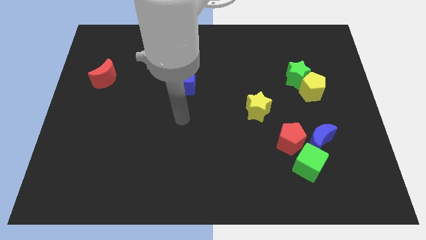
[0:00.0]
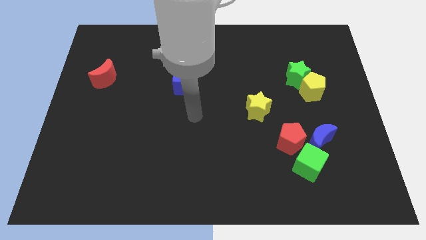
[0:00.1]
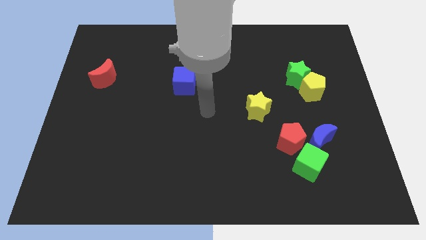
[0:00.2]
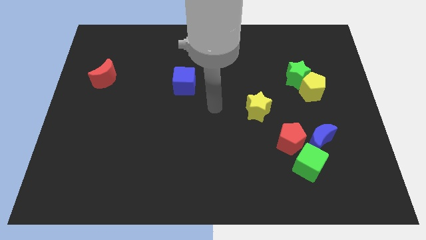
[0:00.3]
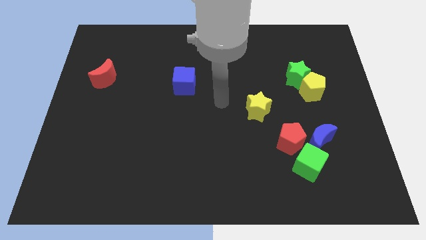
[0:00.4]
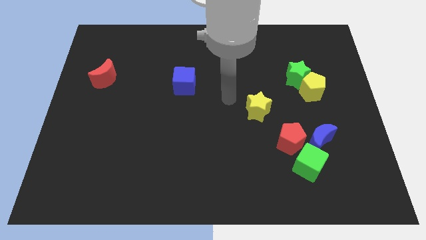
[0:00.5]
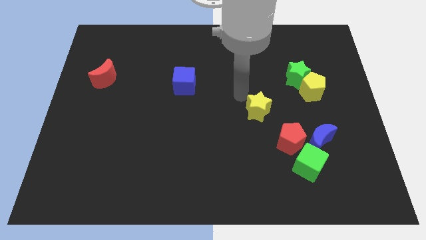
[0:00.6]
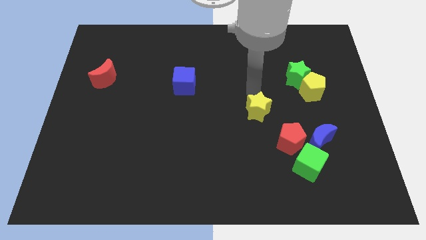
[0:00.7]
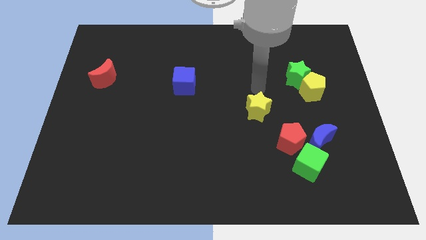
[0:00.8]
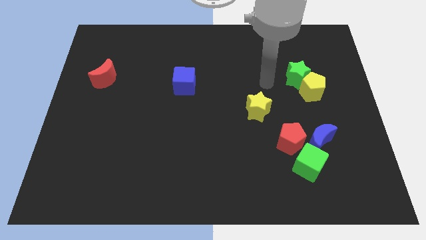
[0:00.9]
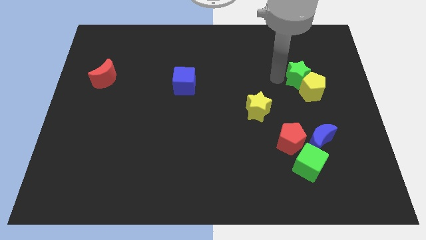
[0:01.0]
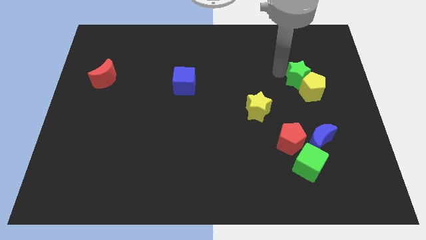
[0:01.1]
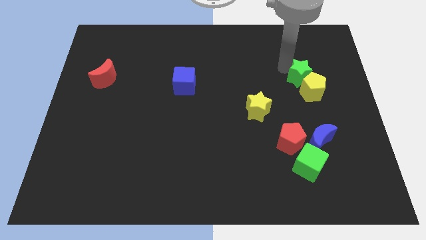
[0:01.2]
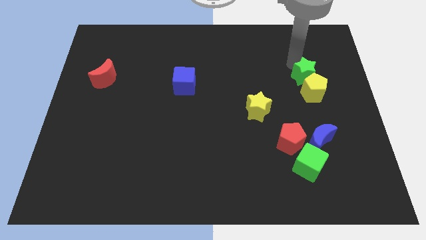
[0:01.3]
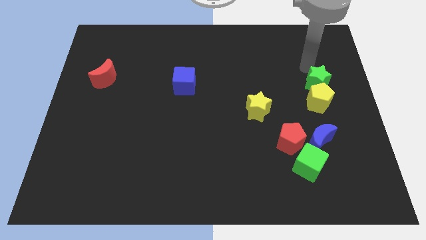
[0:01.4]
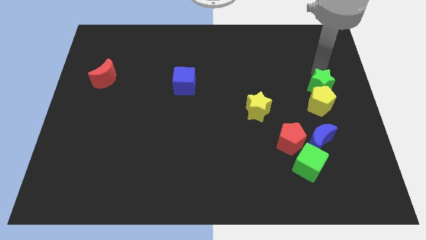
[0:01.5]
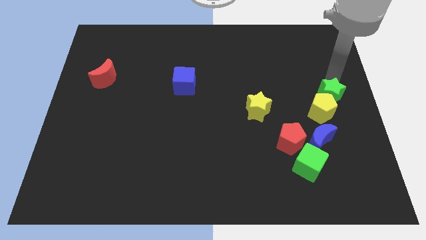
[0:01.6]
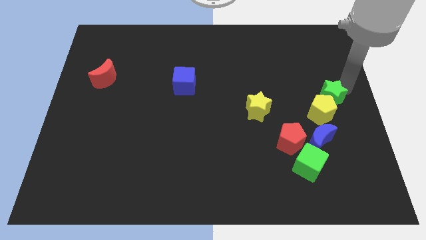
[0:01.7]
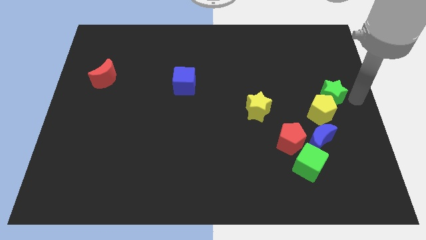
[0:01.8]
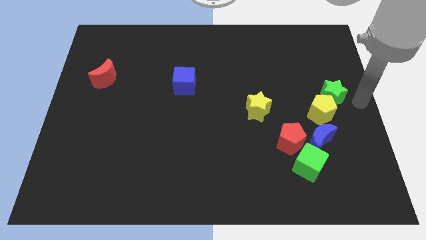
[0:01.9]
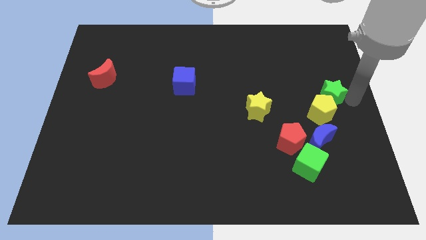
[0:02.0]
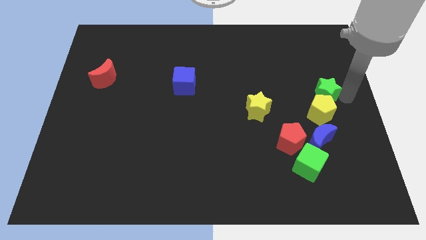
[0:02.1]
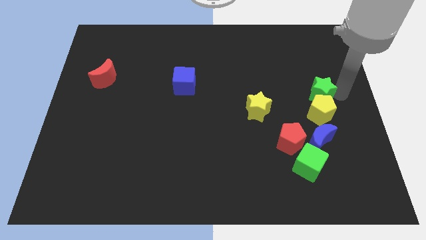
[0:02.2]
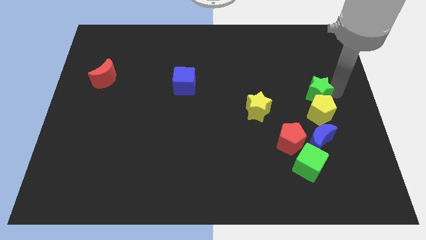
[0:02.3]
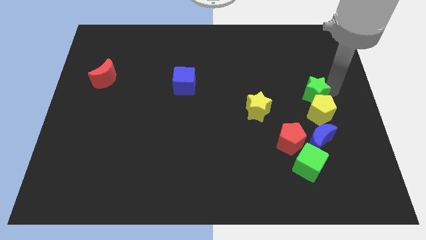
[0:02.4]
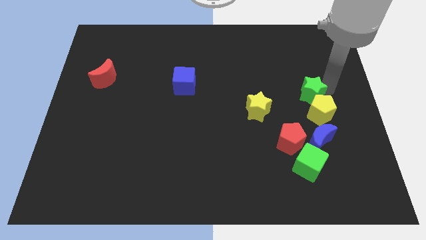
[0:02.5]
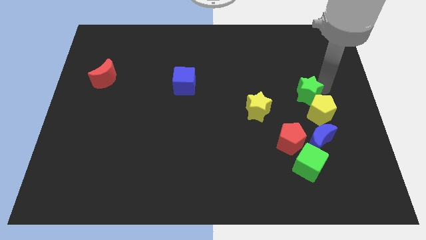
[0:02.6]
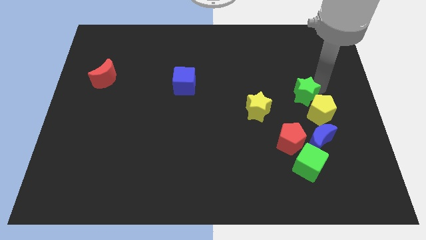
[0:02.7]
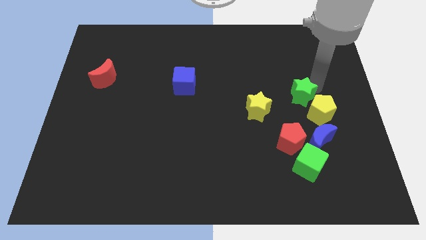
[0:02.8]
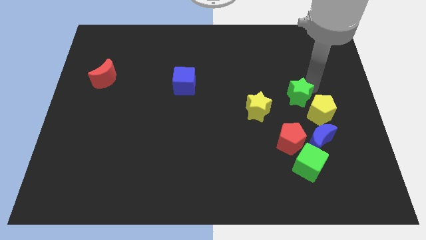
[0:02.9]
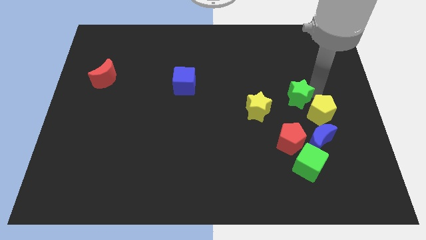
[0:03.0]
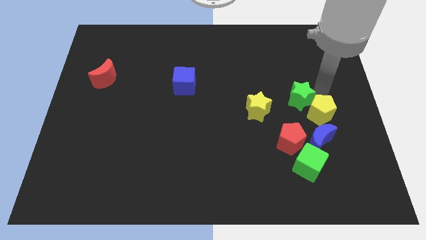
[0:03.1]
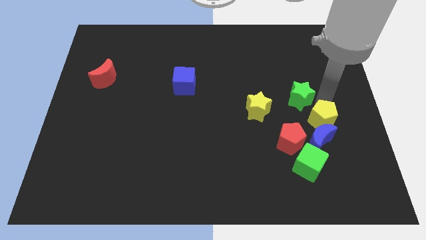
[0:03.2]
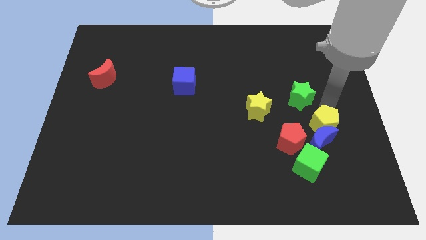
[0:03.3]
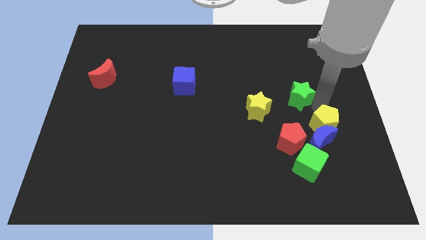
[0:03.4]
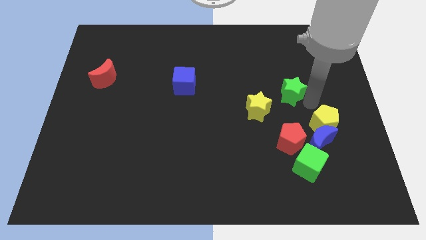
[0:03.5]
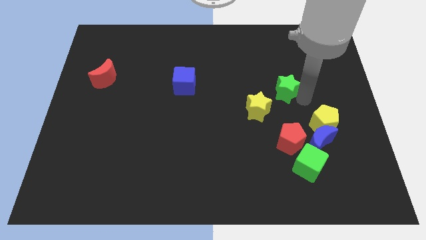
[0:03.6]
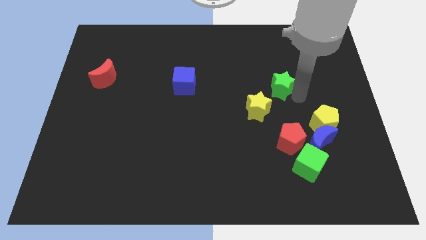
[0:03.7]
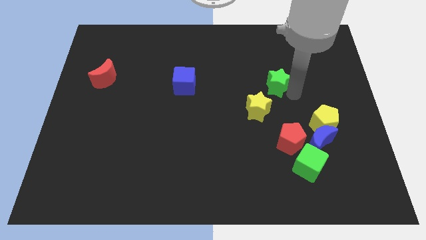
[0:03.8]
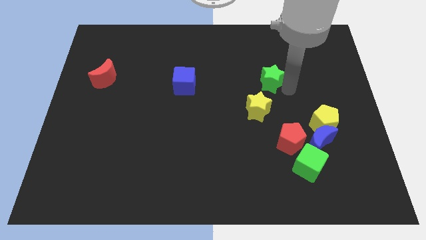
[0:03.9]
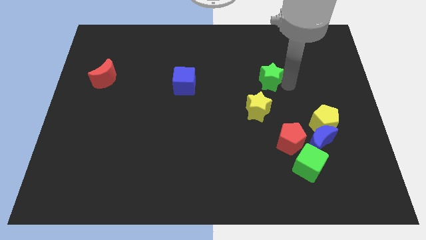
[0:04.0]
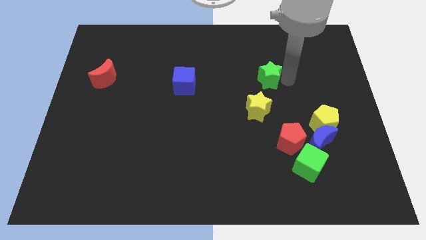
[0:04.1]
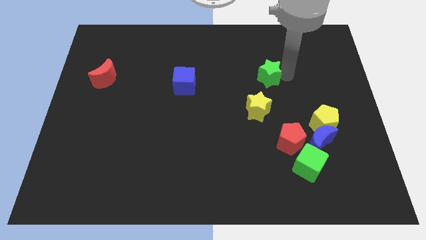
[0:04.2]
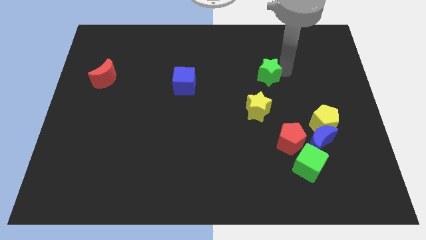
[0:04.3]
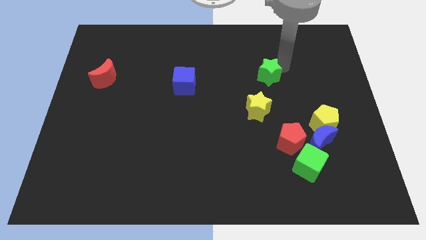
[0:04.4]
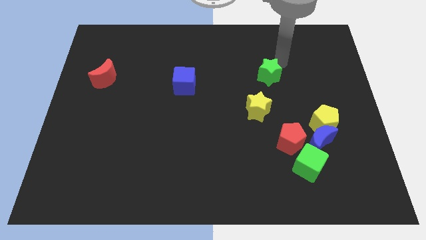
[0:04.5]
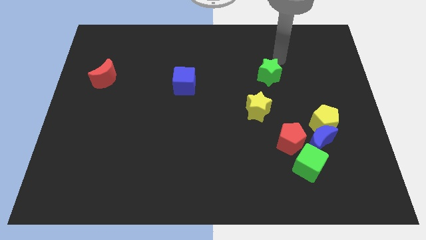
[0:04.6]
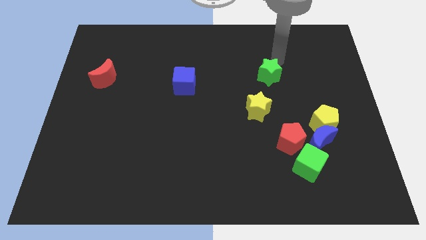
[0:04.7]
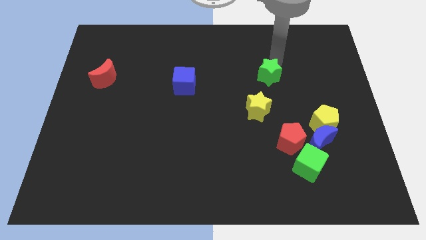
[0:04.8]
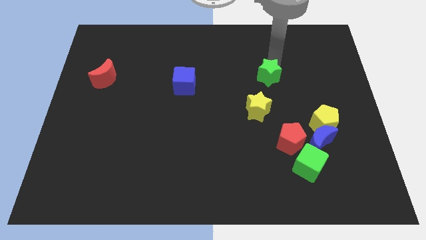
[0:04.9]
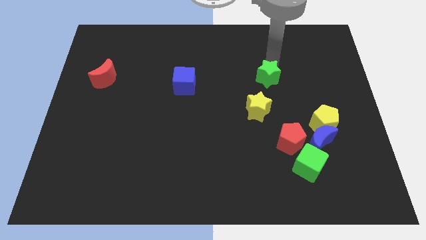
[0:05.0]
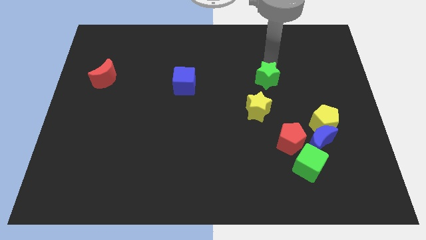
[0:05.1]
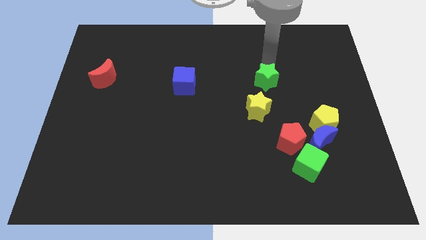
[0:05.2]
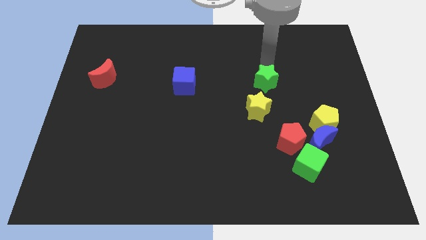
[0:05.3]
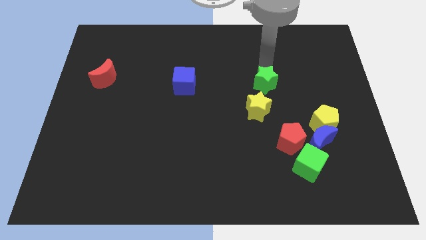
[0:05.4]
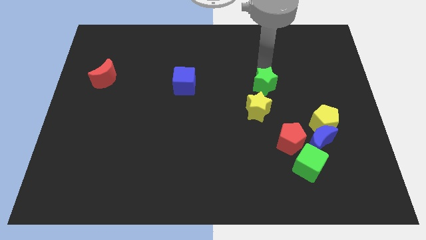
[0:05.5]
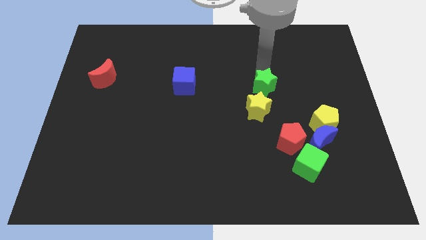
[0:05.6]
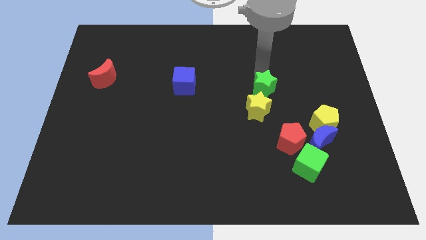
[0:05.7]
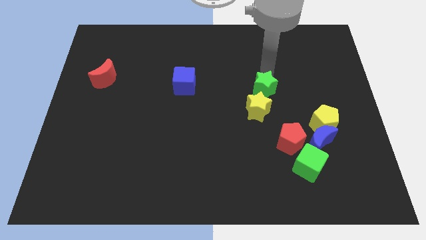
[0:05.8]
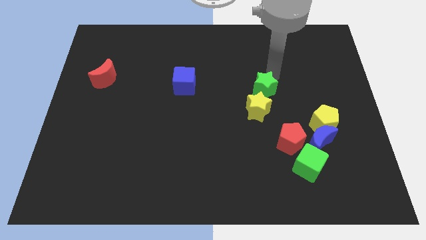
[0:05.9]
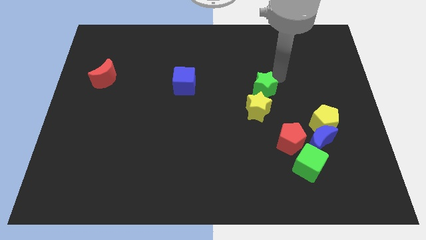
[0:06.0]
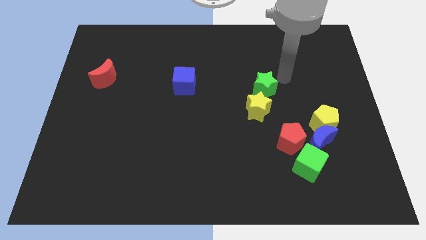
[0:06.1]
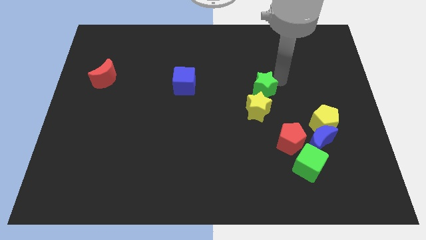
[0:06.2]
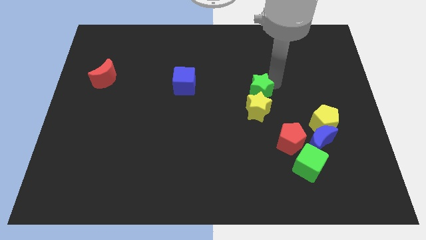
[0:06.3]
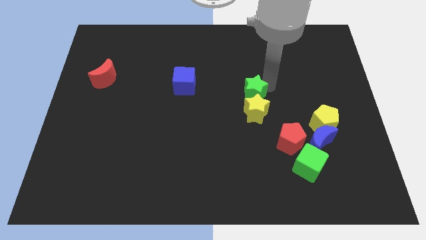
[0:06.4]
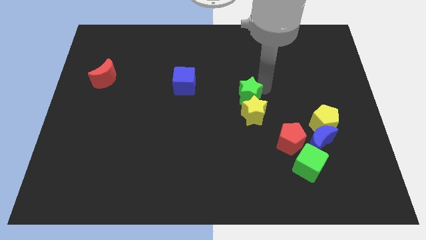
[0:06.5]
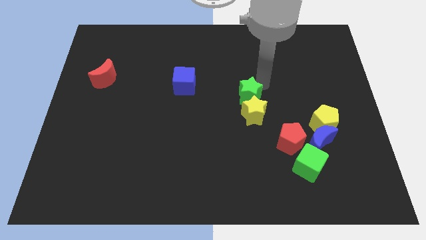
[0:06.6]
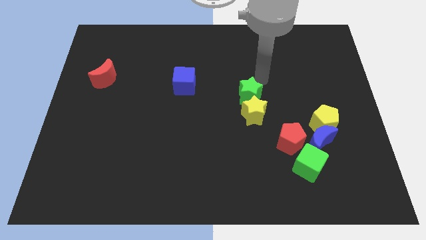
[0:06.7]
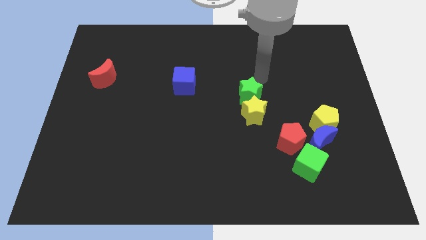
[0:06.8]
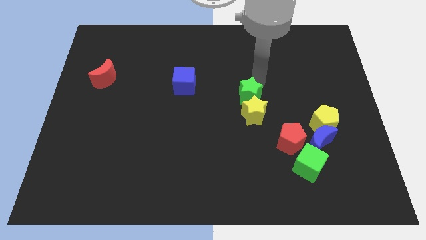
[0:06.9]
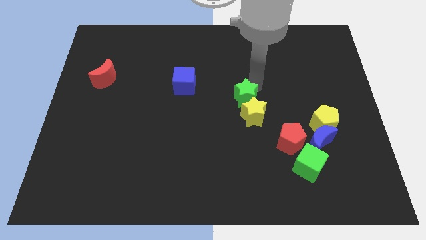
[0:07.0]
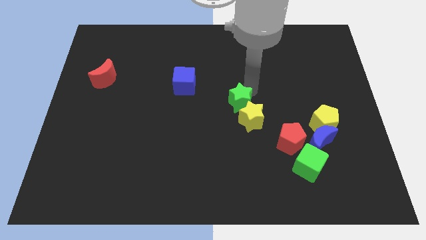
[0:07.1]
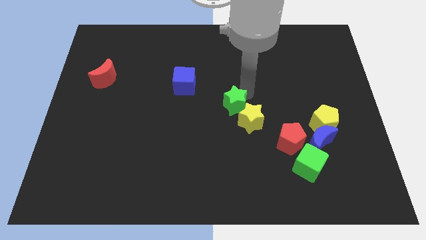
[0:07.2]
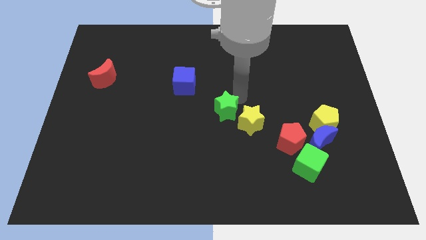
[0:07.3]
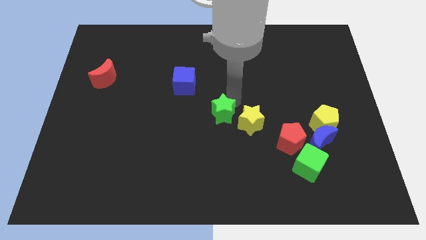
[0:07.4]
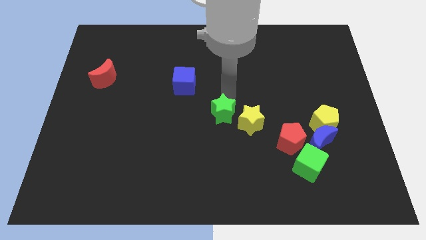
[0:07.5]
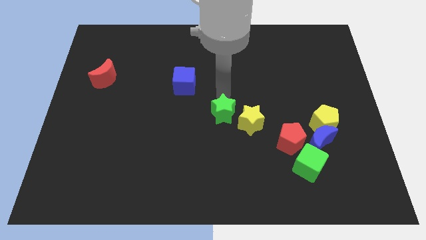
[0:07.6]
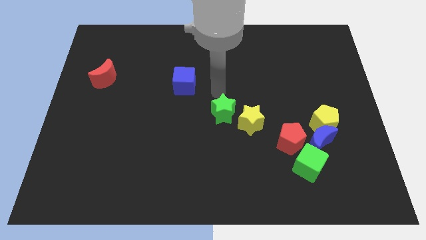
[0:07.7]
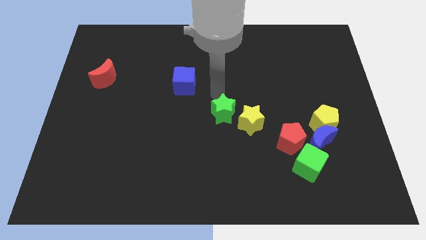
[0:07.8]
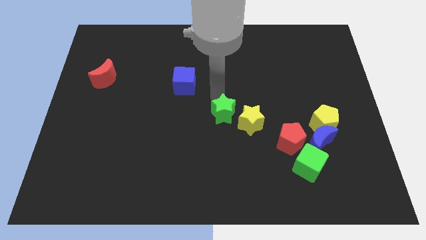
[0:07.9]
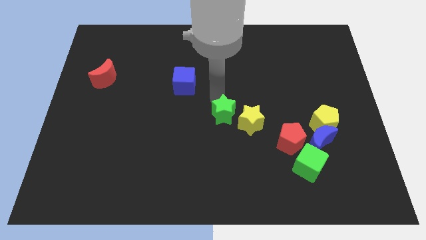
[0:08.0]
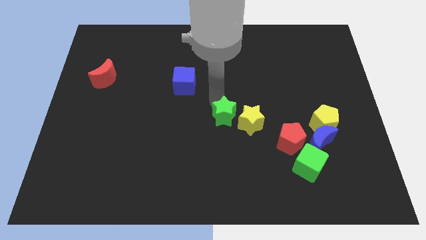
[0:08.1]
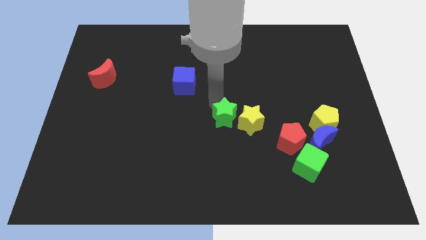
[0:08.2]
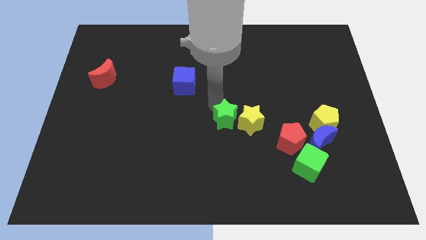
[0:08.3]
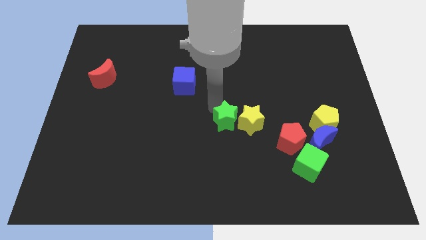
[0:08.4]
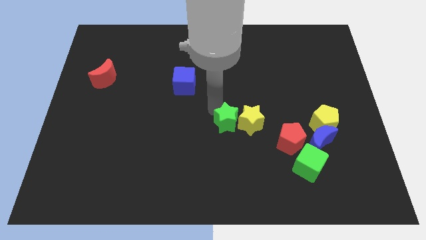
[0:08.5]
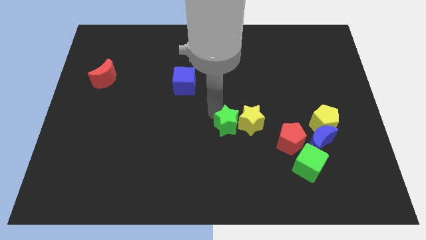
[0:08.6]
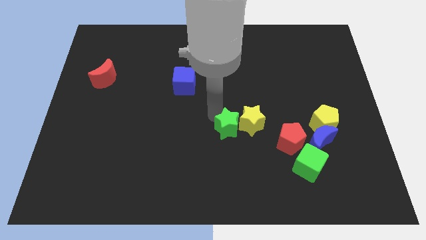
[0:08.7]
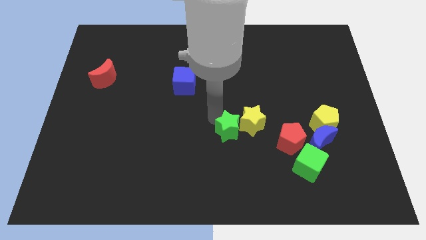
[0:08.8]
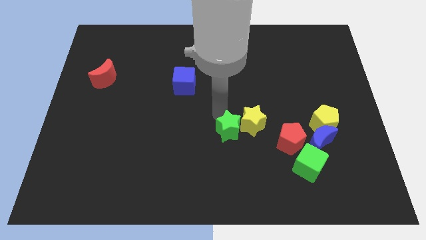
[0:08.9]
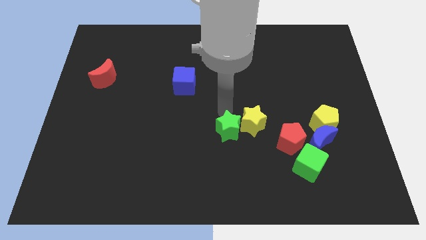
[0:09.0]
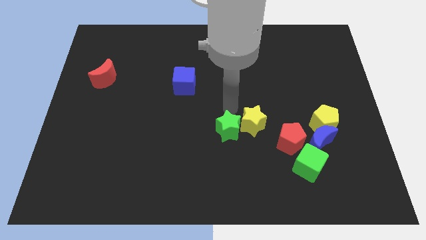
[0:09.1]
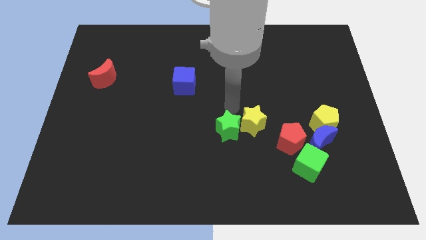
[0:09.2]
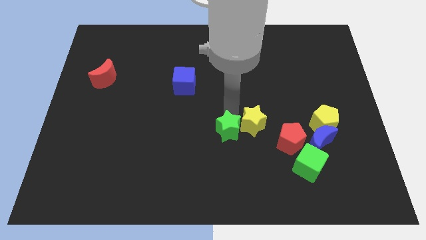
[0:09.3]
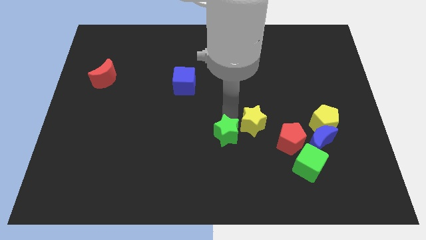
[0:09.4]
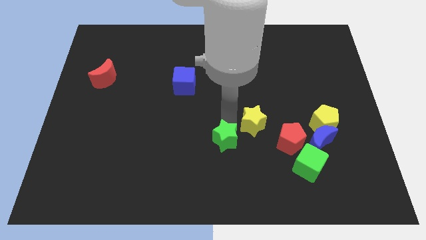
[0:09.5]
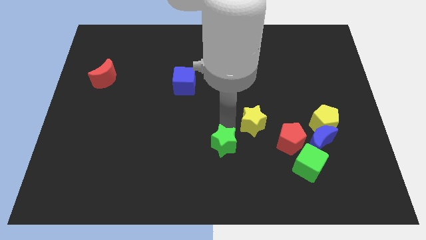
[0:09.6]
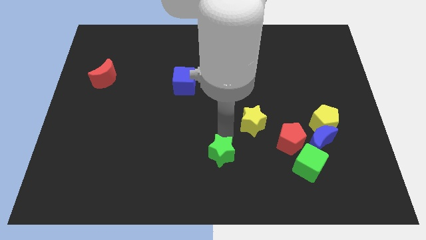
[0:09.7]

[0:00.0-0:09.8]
slide the green star to the bottom
